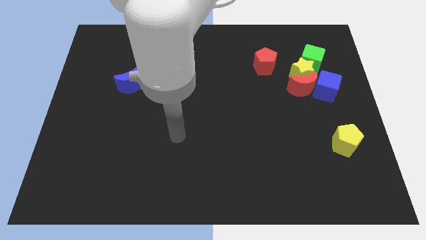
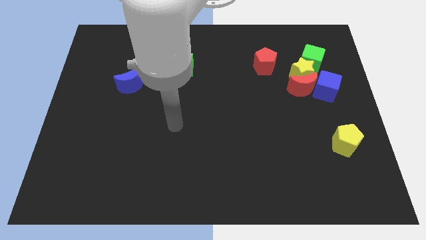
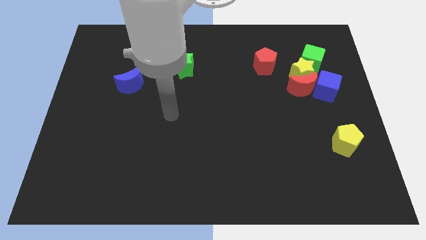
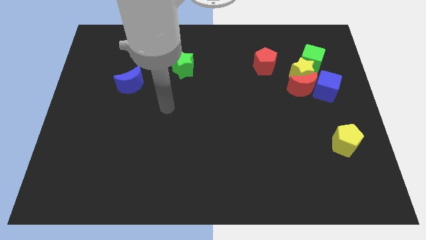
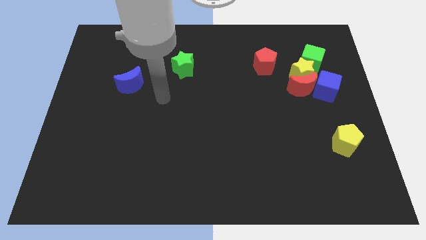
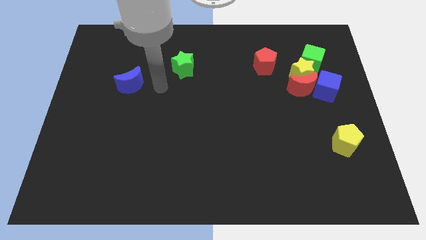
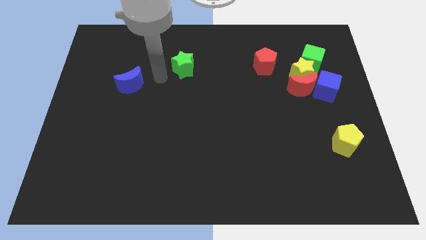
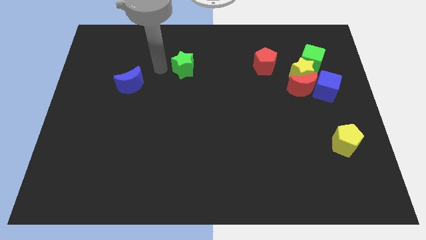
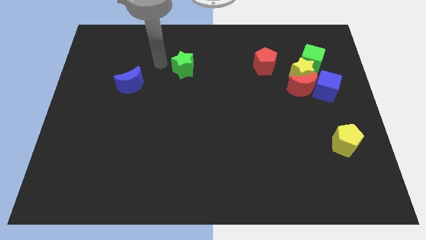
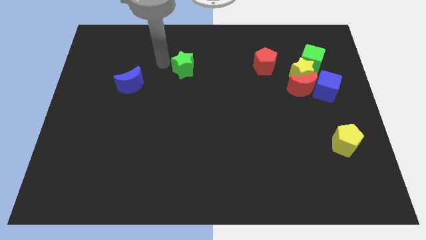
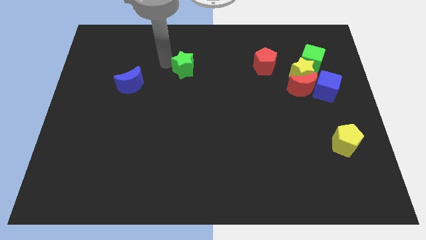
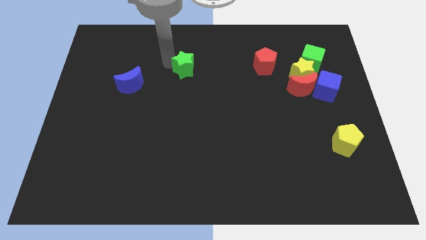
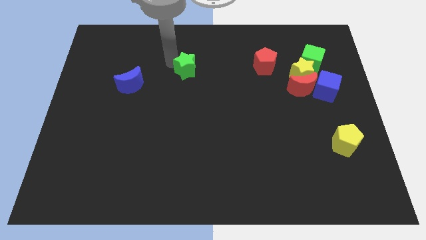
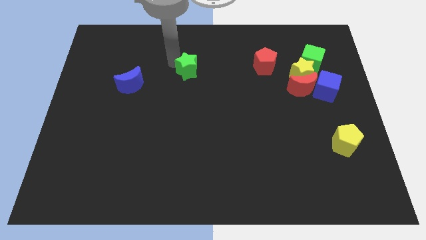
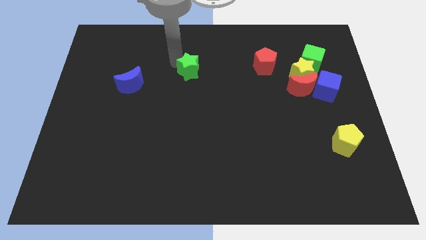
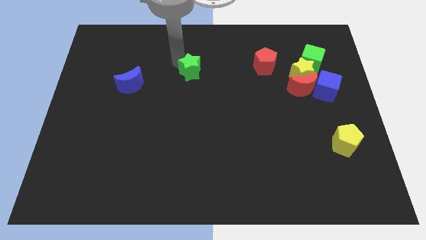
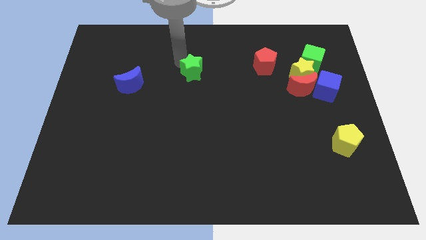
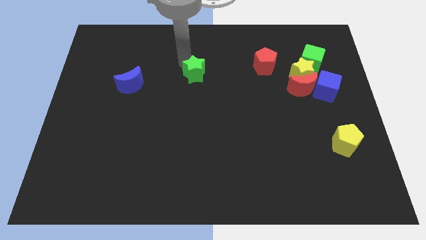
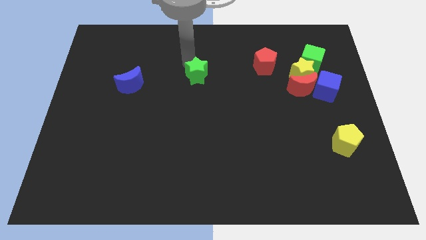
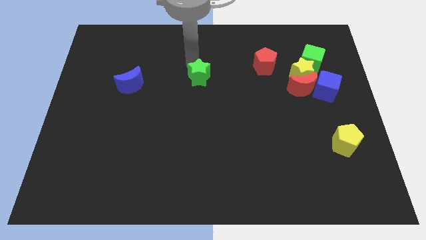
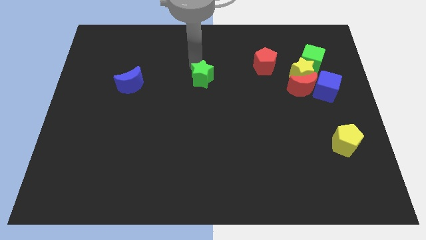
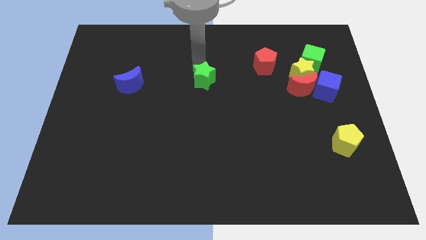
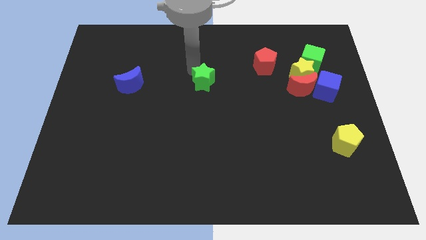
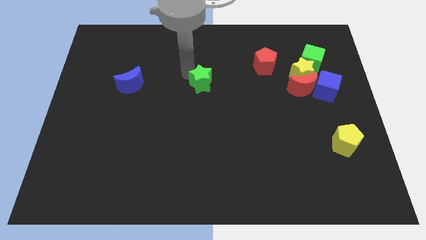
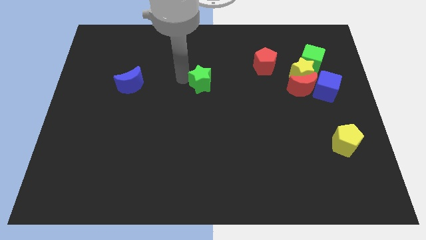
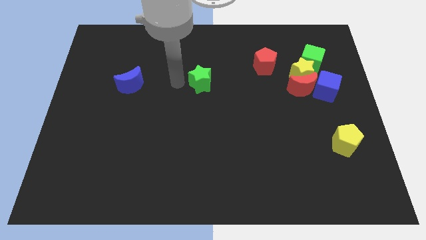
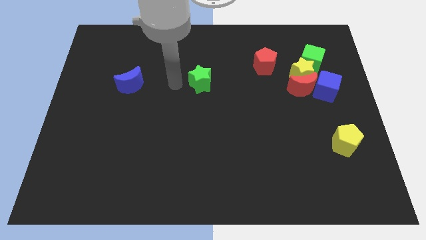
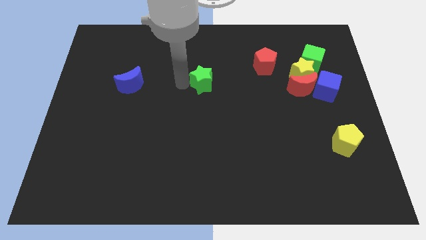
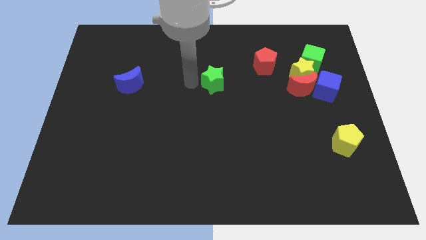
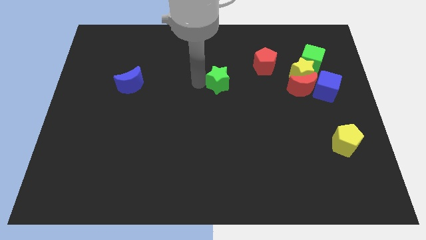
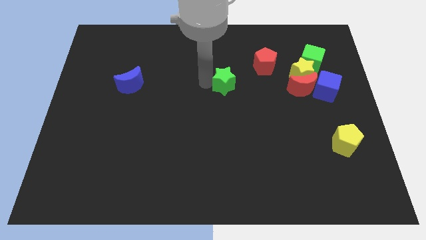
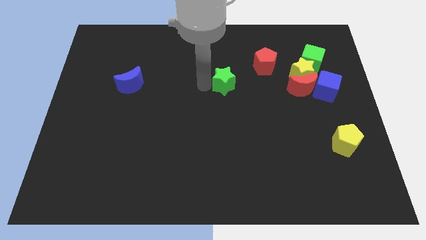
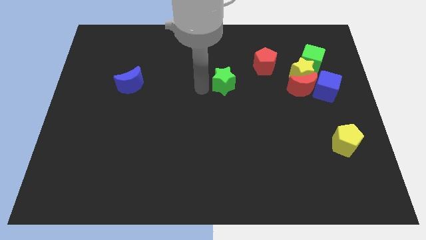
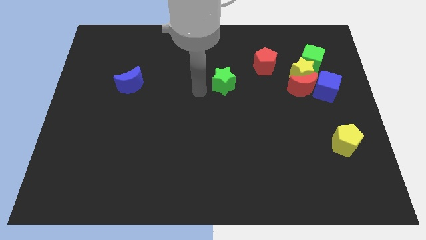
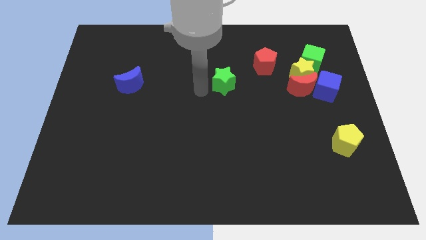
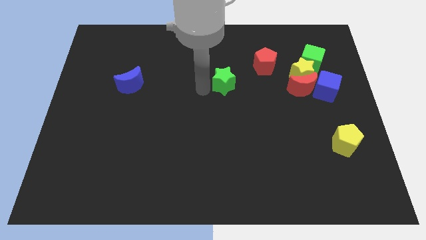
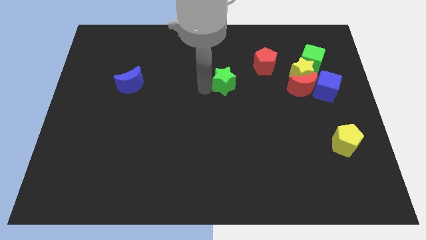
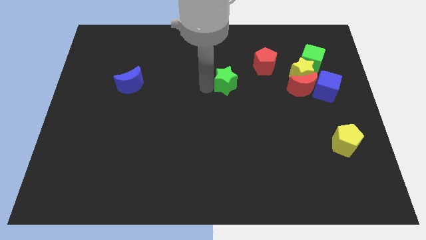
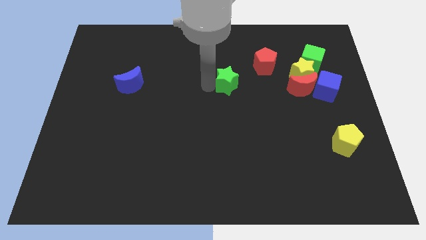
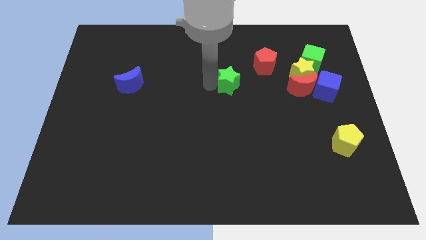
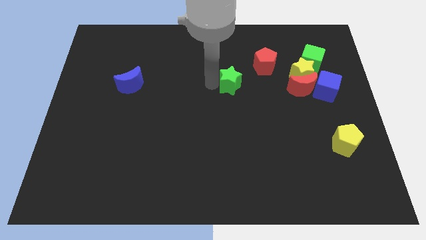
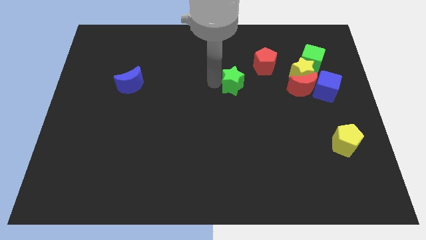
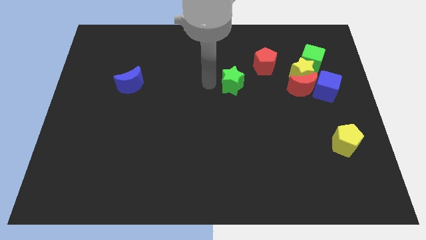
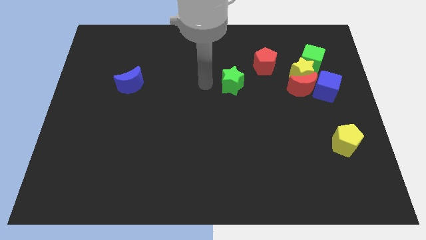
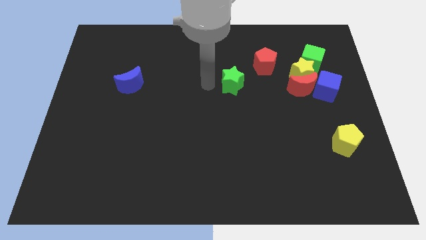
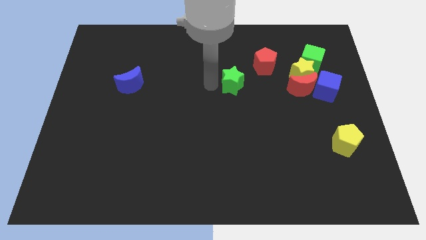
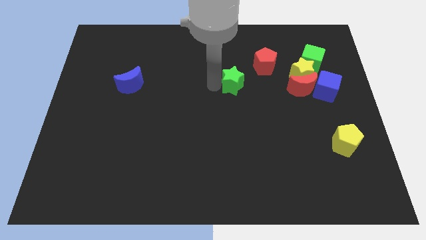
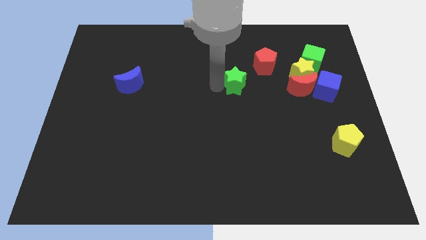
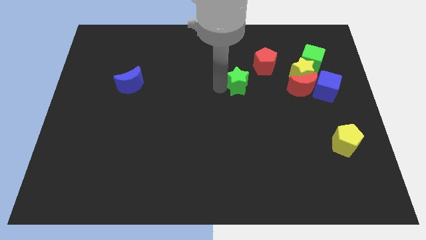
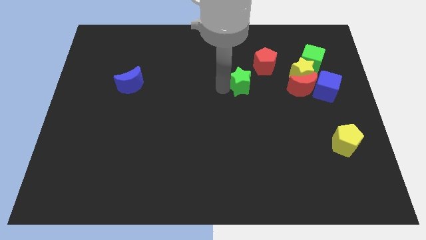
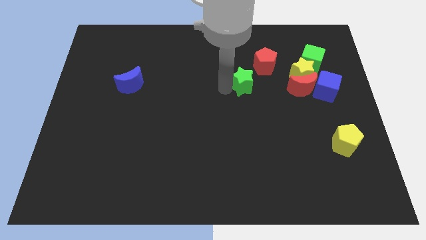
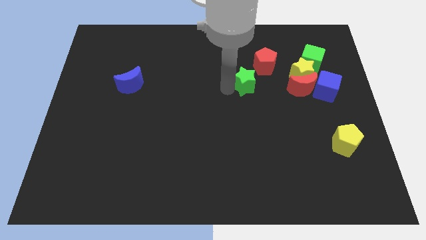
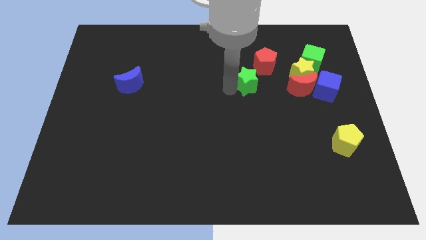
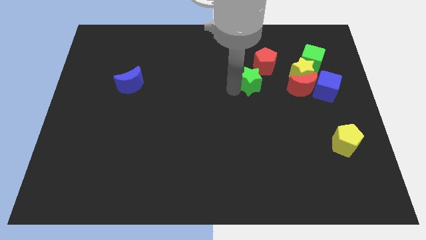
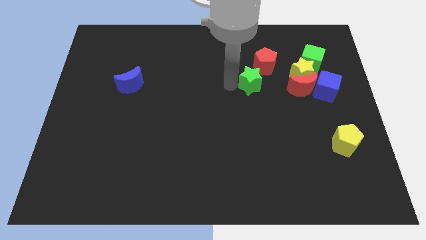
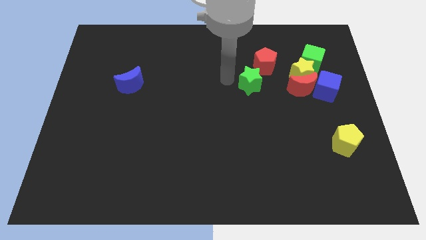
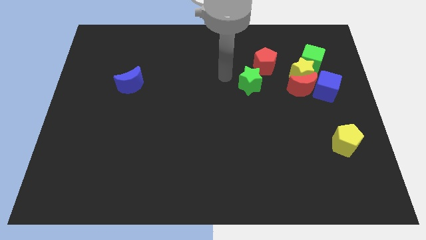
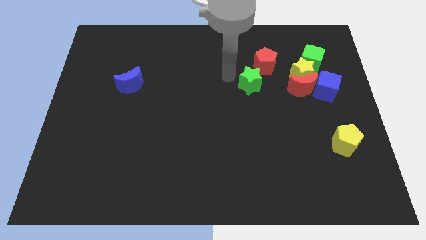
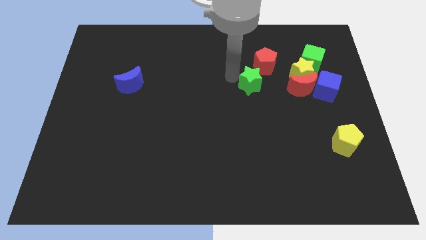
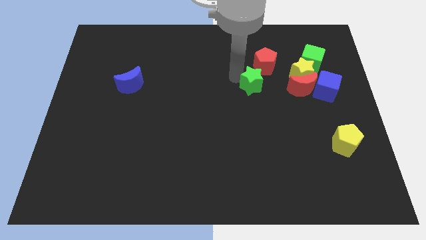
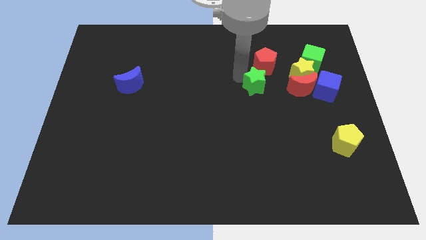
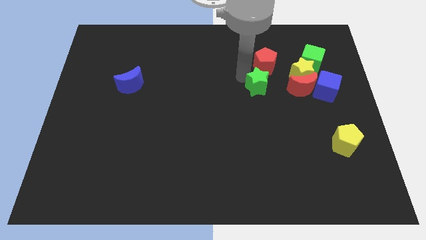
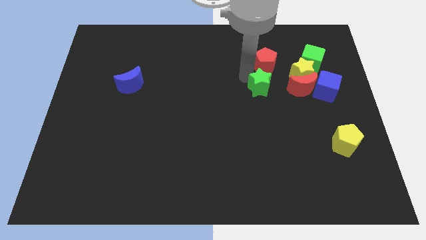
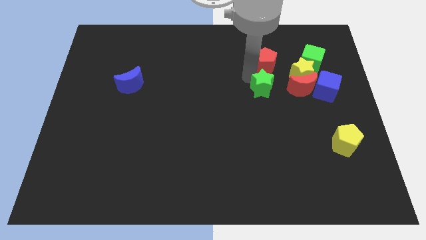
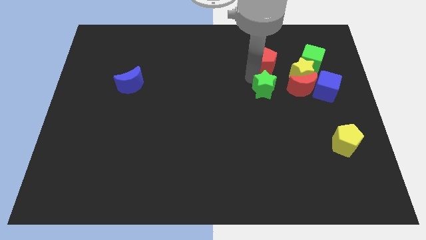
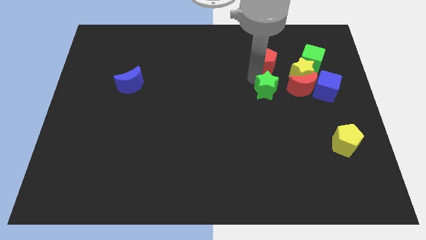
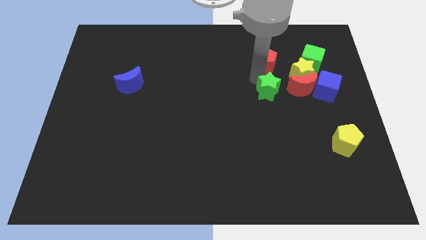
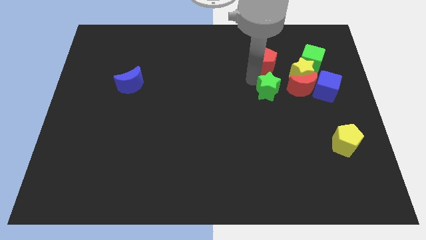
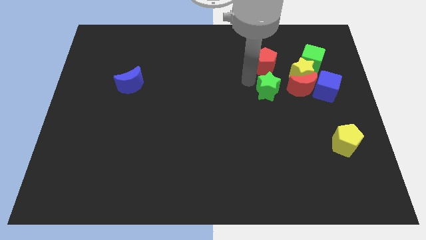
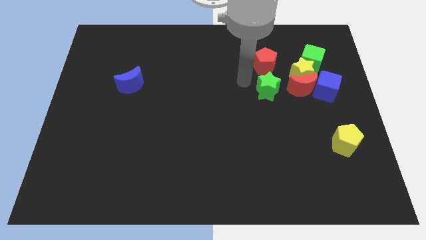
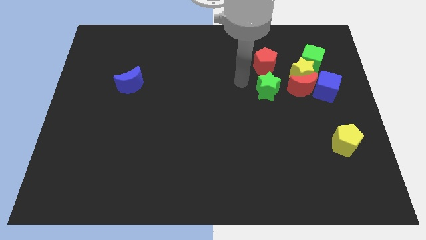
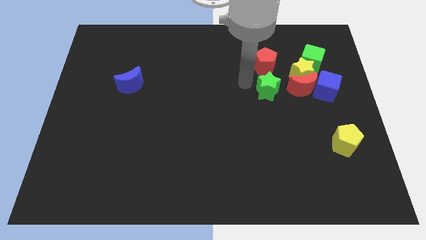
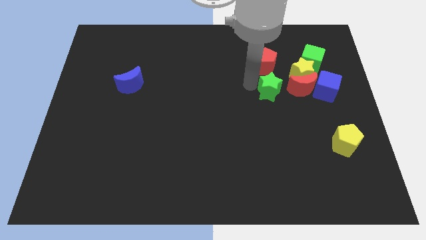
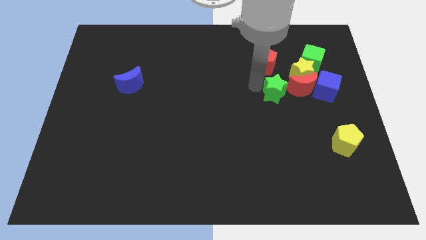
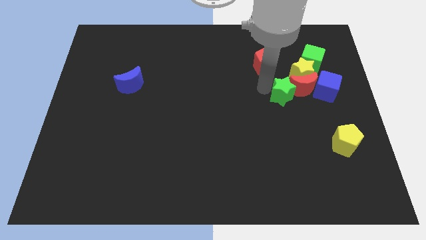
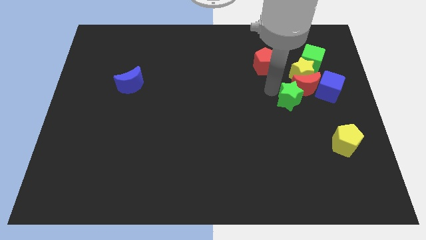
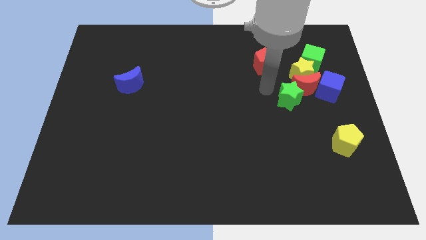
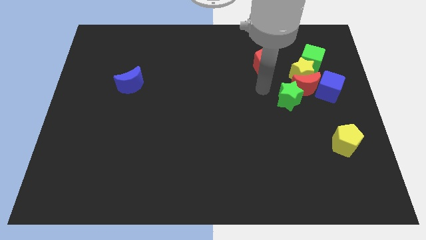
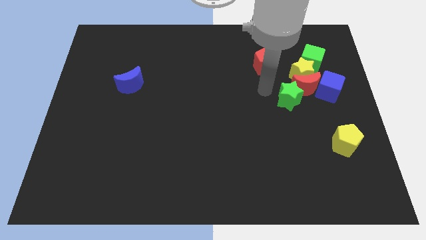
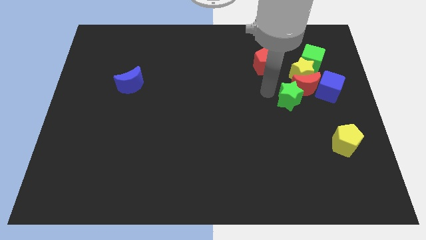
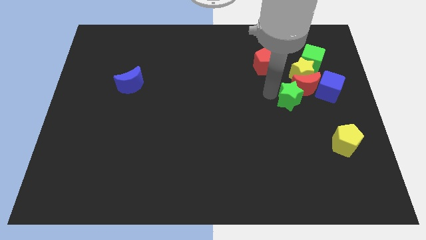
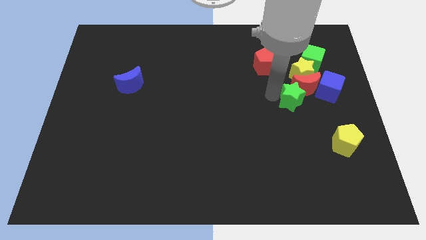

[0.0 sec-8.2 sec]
push the green star to the bottom left side of the blue cube
